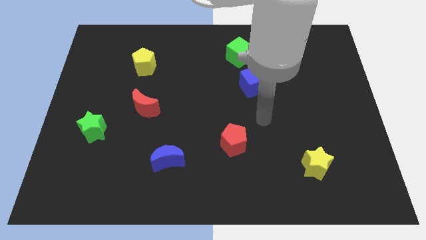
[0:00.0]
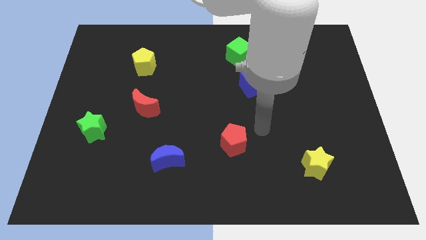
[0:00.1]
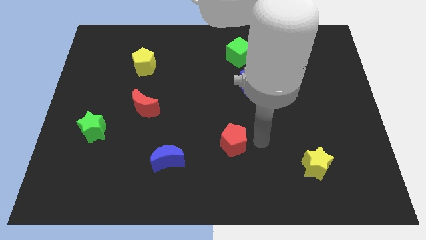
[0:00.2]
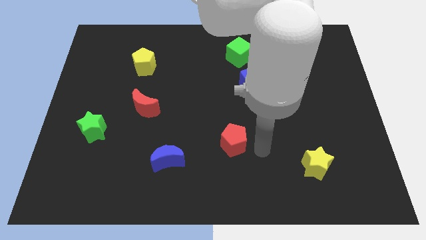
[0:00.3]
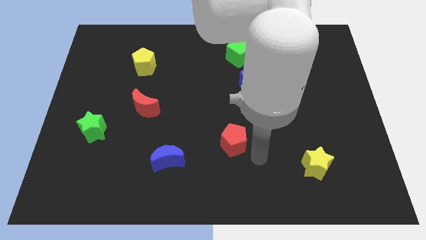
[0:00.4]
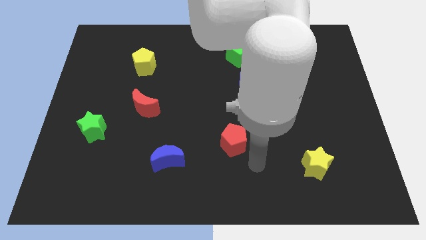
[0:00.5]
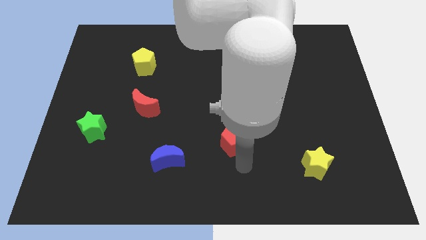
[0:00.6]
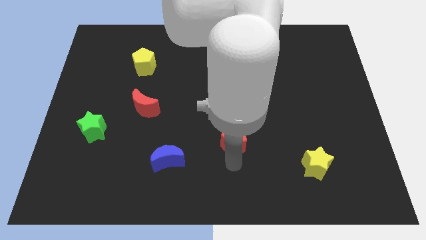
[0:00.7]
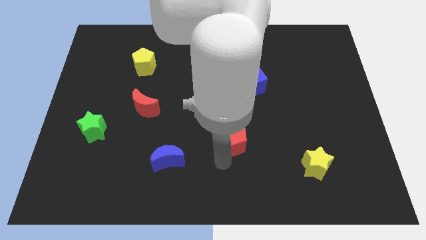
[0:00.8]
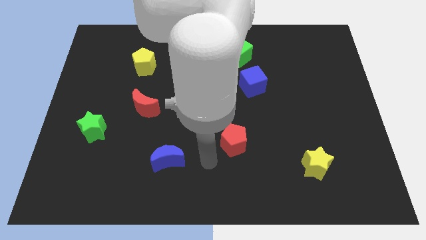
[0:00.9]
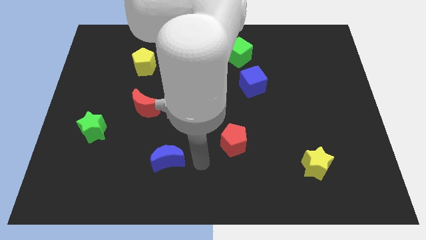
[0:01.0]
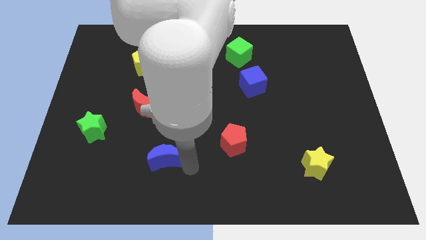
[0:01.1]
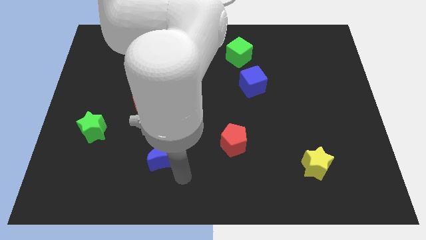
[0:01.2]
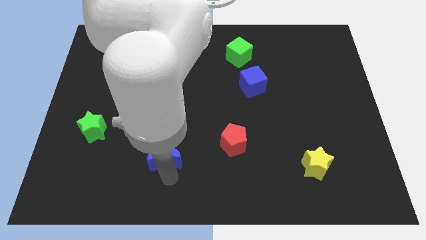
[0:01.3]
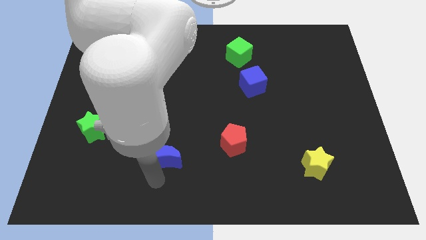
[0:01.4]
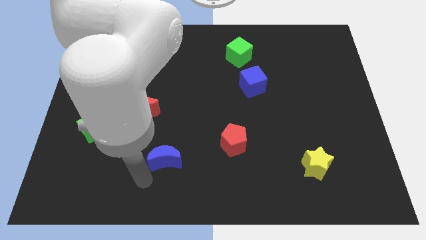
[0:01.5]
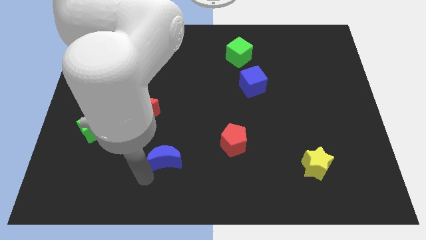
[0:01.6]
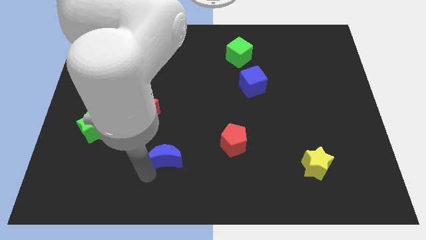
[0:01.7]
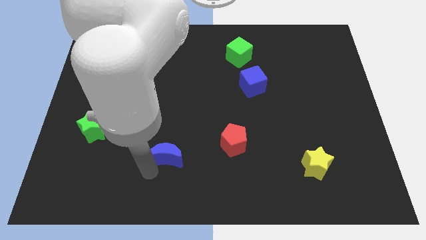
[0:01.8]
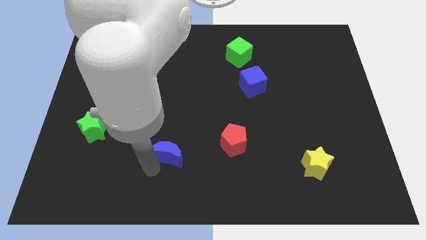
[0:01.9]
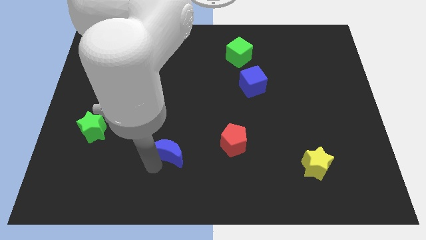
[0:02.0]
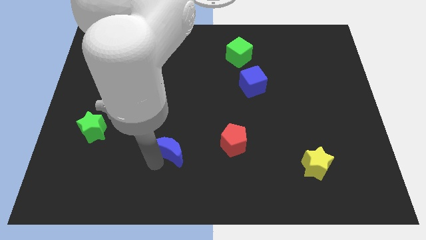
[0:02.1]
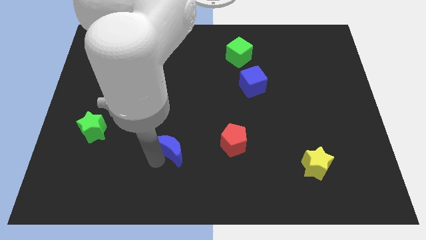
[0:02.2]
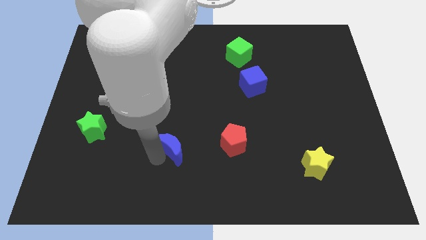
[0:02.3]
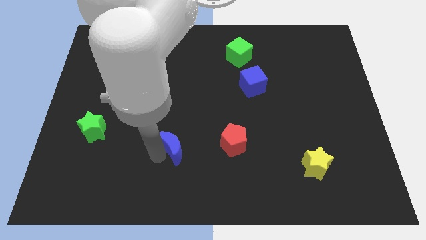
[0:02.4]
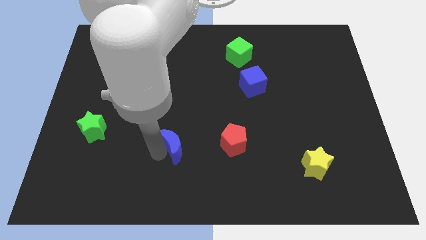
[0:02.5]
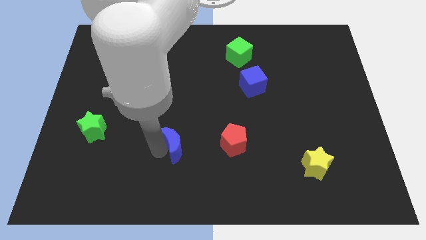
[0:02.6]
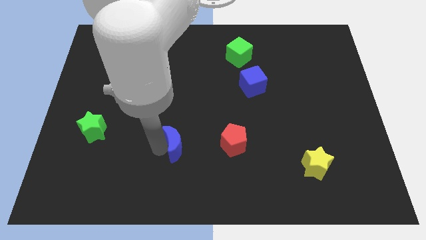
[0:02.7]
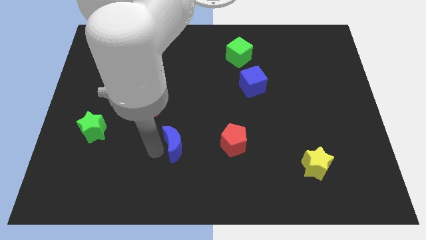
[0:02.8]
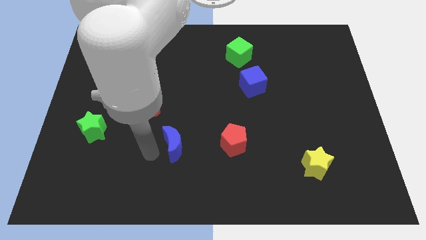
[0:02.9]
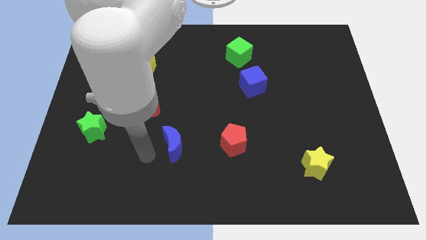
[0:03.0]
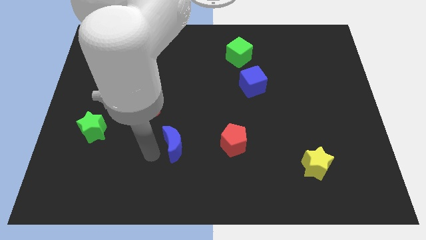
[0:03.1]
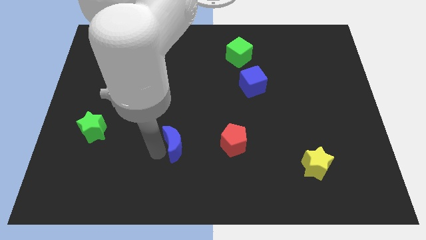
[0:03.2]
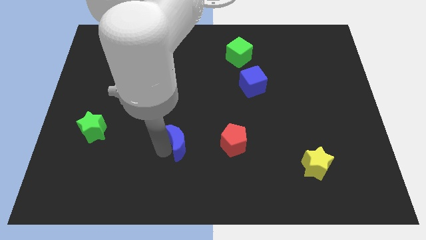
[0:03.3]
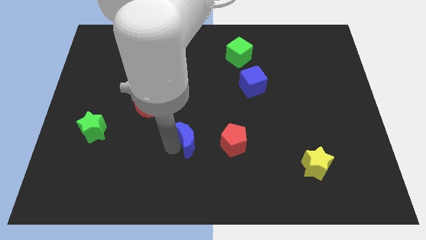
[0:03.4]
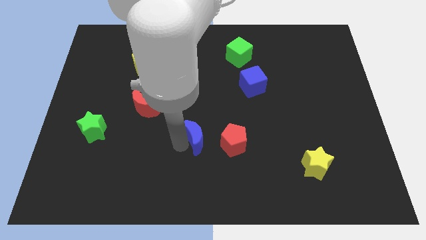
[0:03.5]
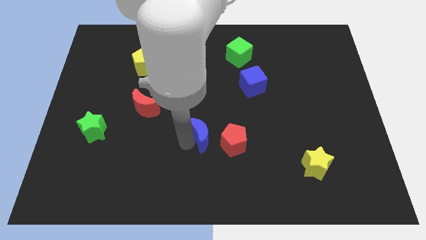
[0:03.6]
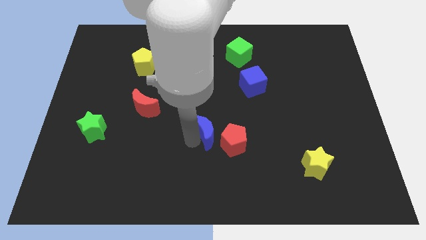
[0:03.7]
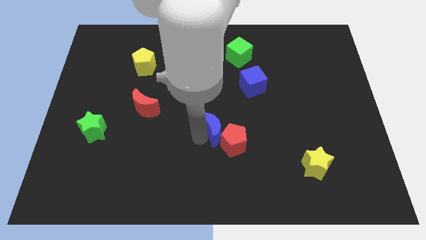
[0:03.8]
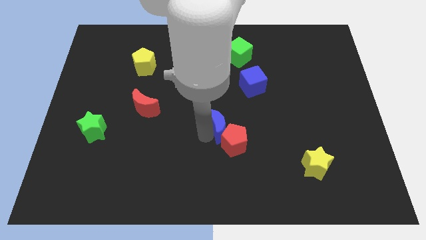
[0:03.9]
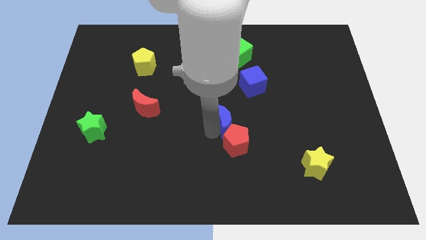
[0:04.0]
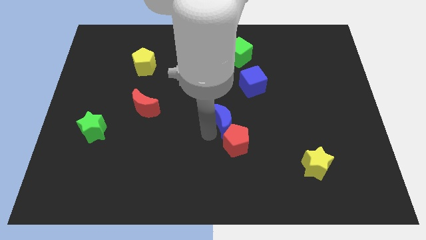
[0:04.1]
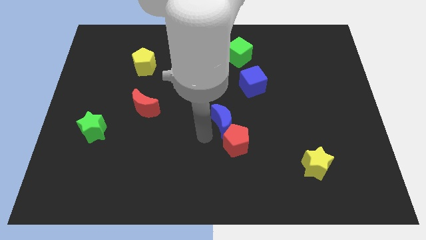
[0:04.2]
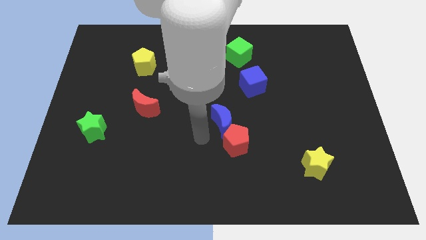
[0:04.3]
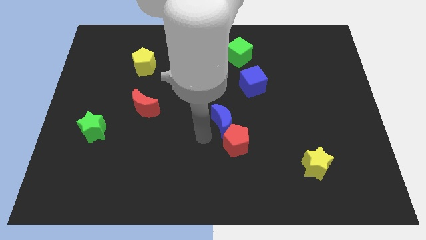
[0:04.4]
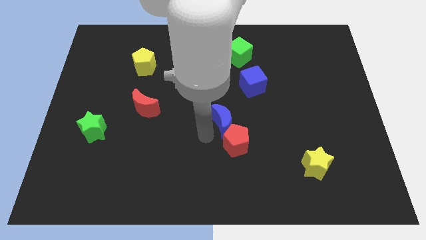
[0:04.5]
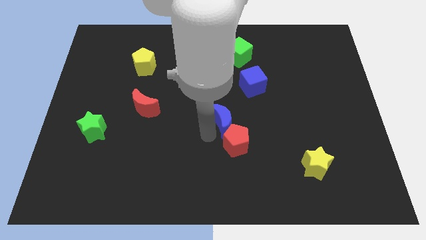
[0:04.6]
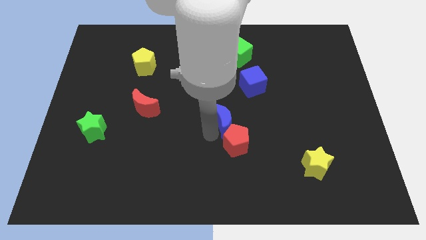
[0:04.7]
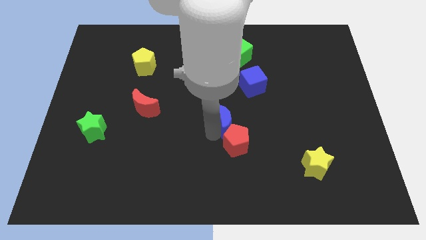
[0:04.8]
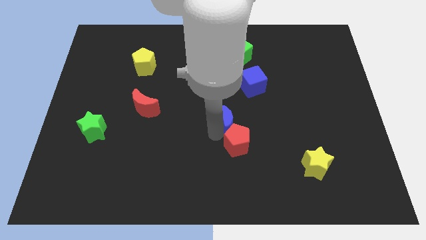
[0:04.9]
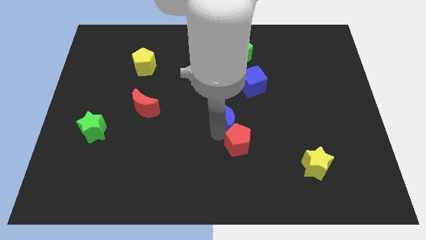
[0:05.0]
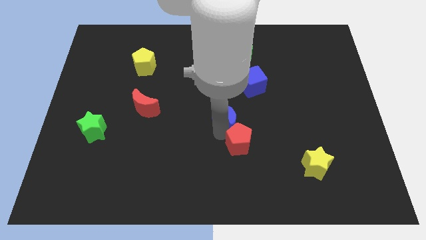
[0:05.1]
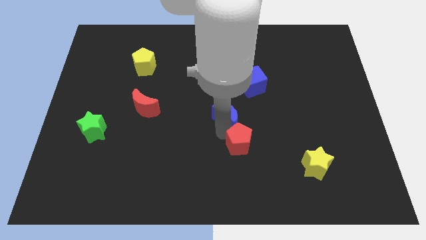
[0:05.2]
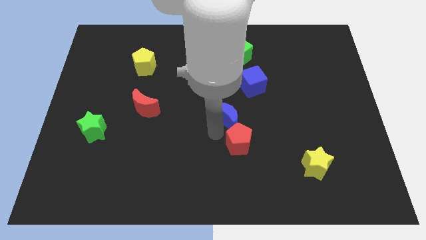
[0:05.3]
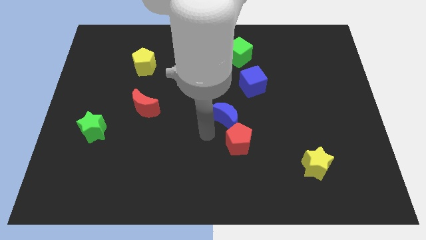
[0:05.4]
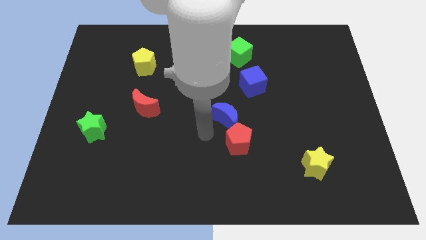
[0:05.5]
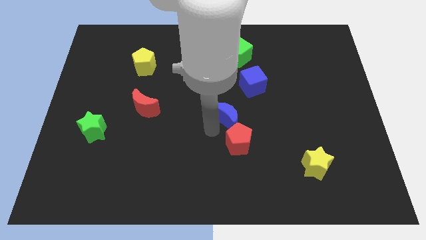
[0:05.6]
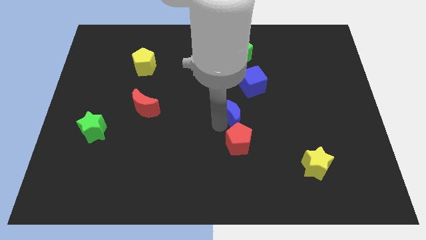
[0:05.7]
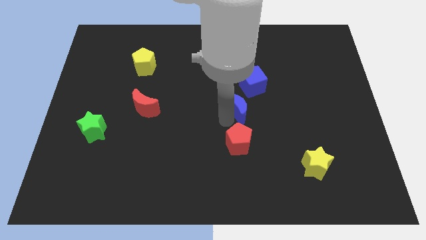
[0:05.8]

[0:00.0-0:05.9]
move the blue moon up and then right

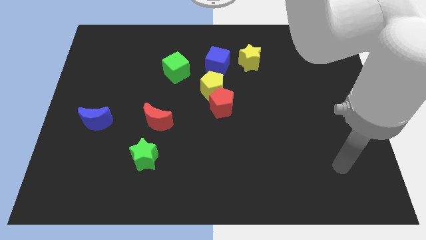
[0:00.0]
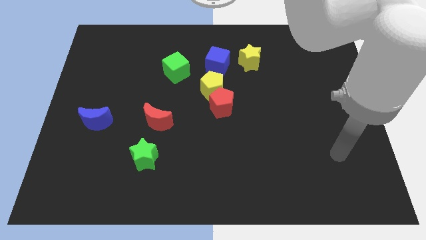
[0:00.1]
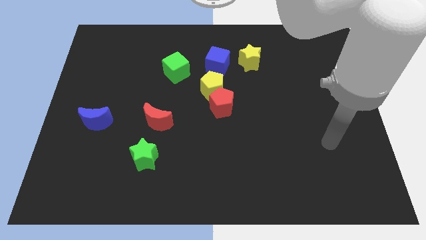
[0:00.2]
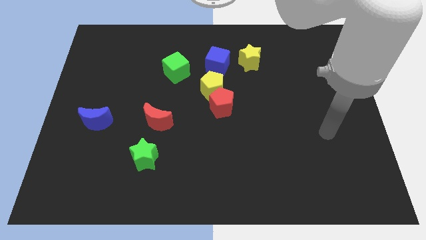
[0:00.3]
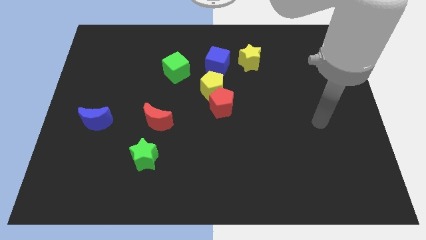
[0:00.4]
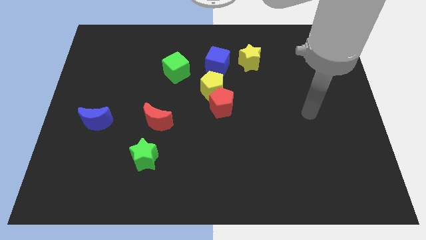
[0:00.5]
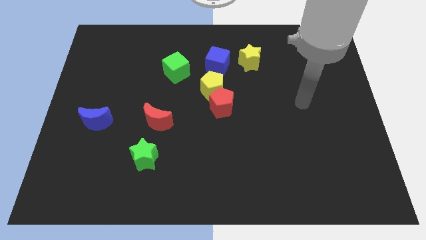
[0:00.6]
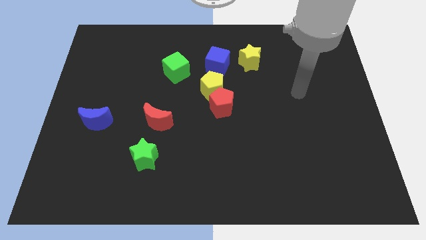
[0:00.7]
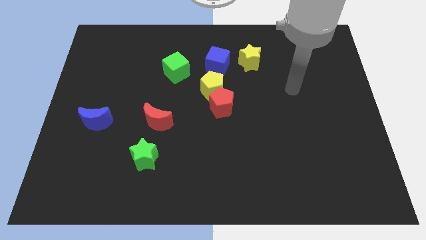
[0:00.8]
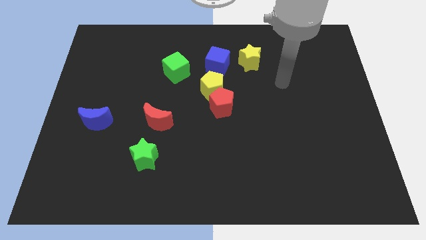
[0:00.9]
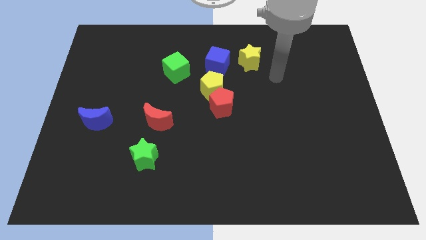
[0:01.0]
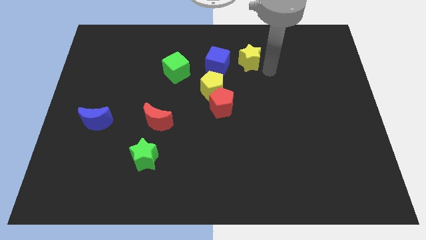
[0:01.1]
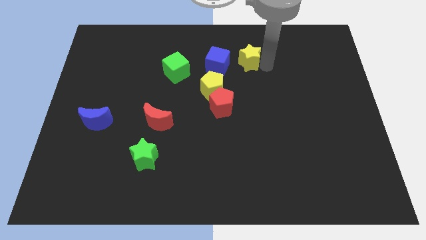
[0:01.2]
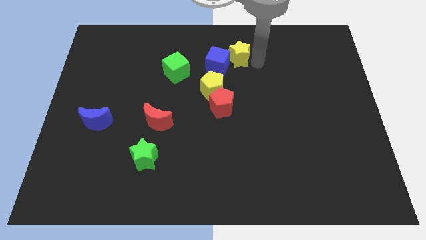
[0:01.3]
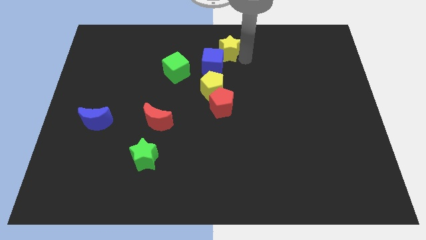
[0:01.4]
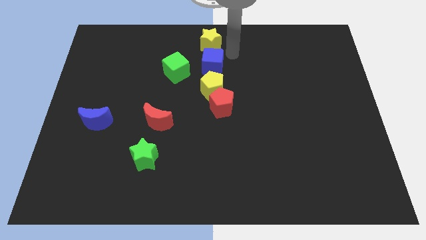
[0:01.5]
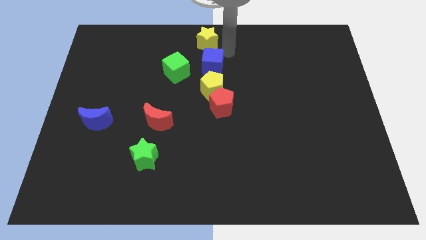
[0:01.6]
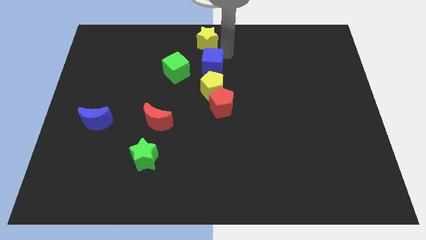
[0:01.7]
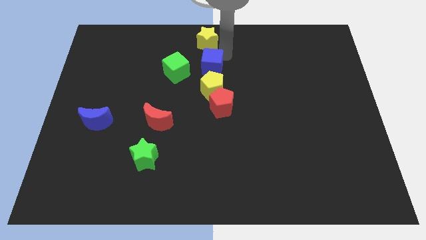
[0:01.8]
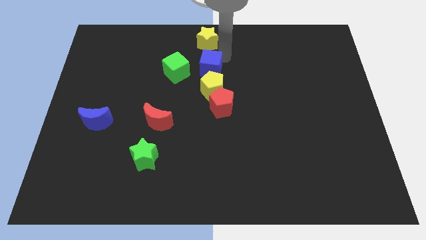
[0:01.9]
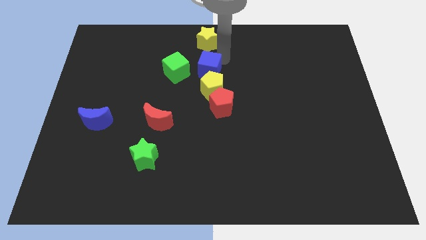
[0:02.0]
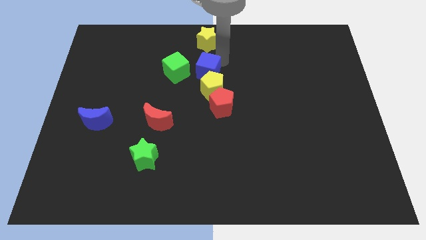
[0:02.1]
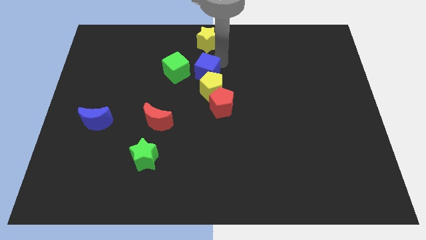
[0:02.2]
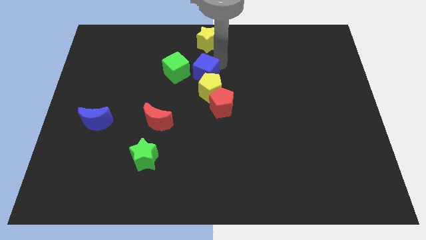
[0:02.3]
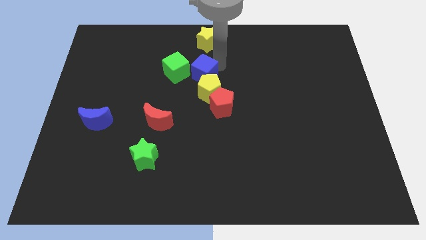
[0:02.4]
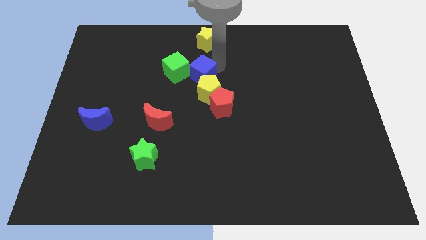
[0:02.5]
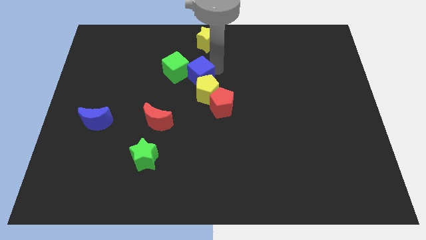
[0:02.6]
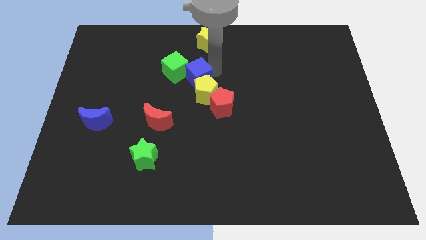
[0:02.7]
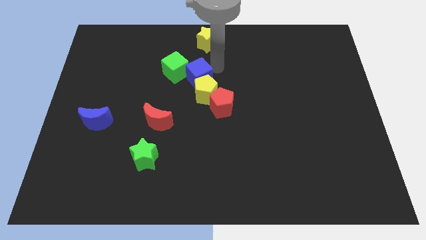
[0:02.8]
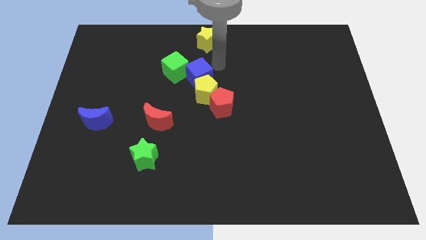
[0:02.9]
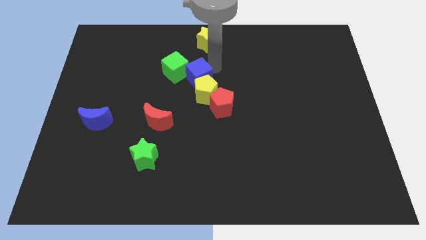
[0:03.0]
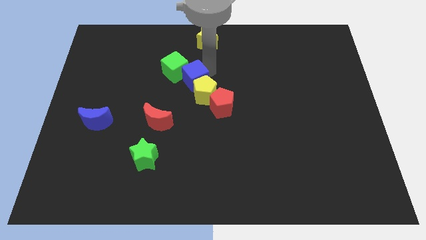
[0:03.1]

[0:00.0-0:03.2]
move the blue cube diagonally downwards and left slightly
